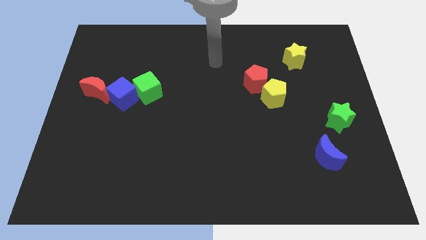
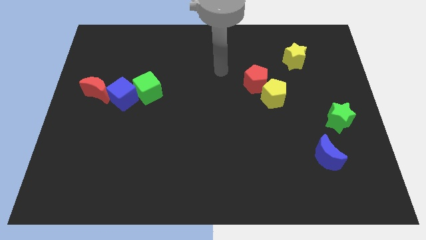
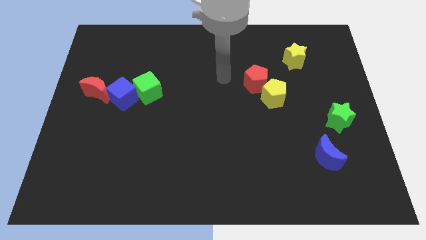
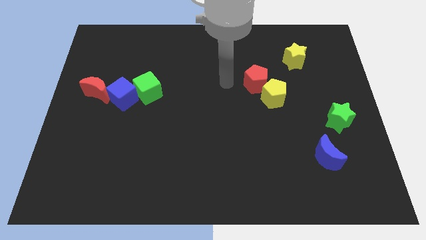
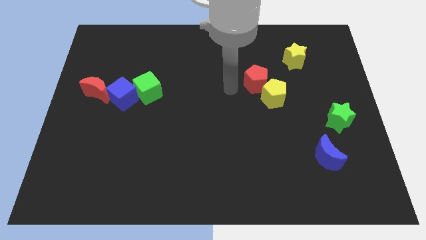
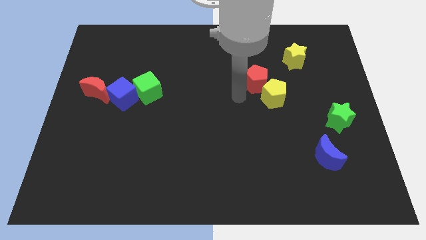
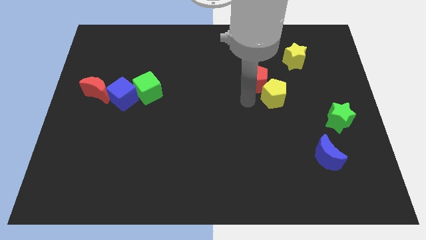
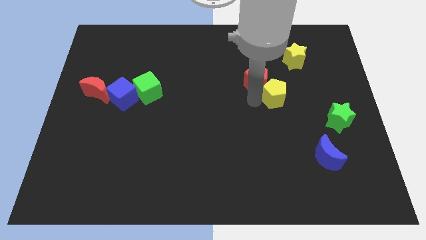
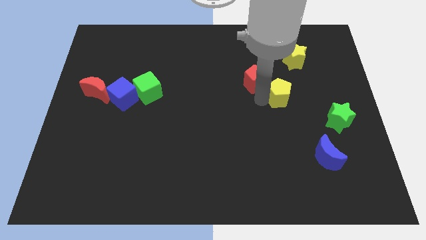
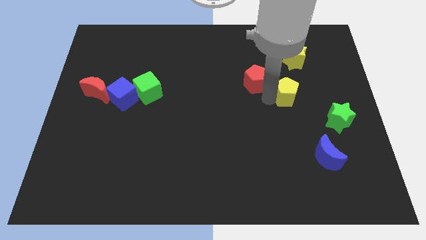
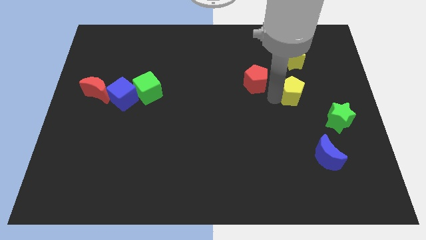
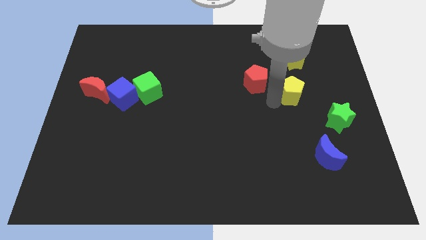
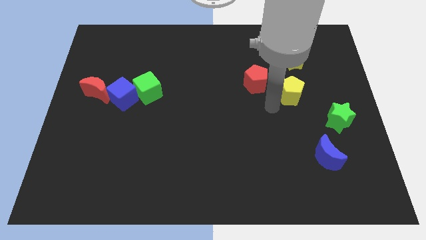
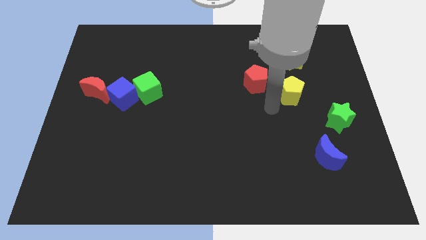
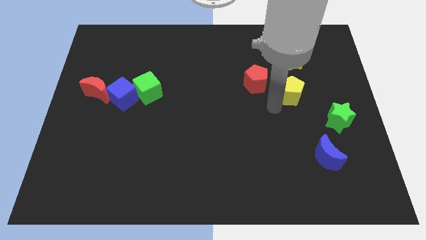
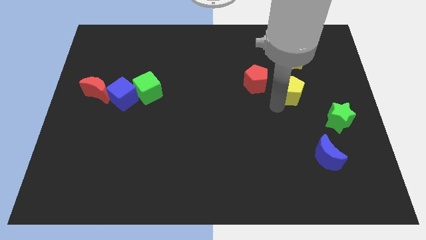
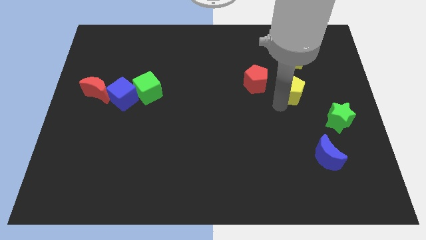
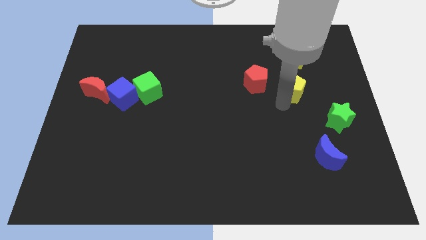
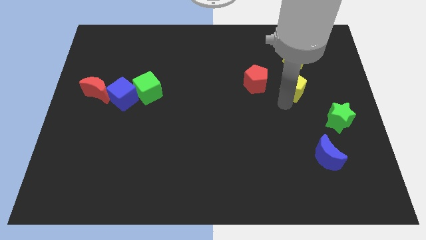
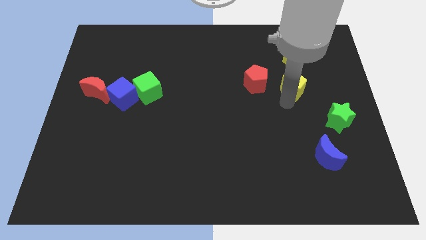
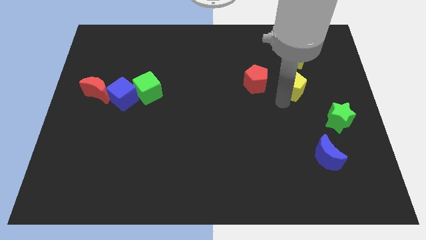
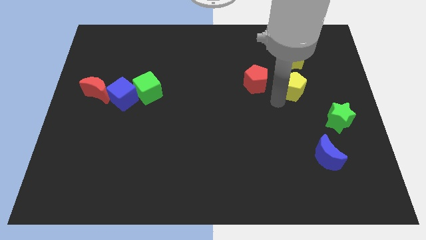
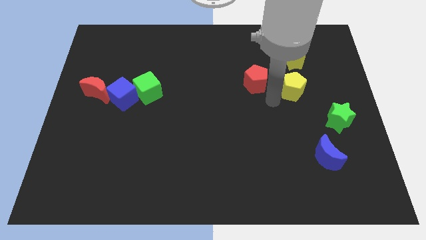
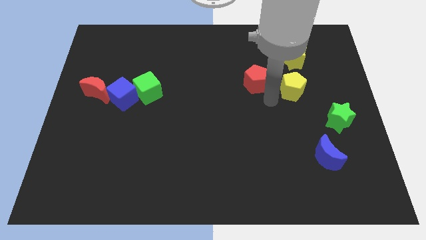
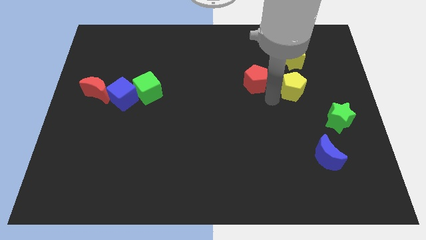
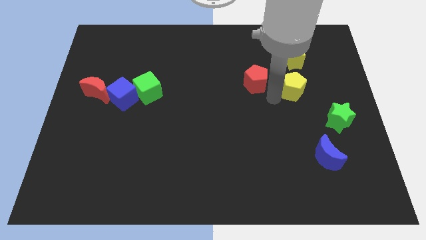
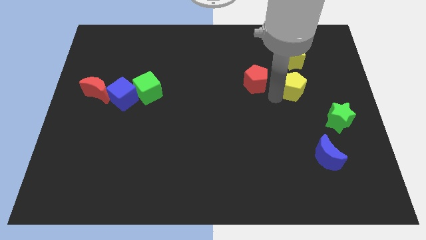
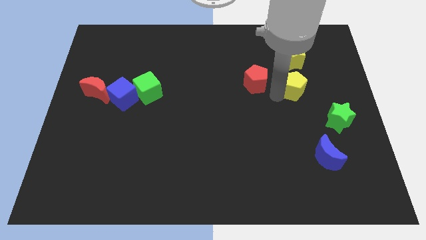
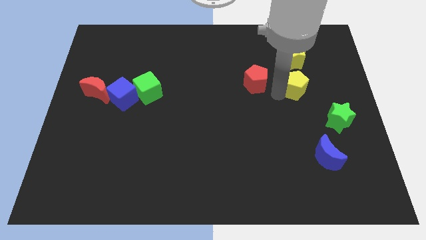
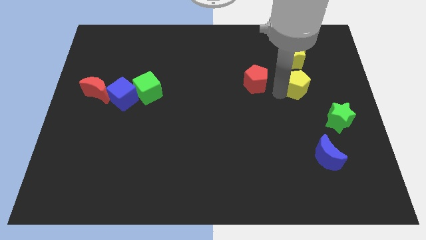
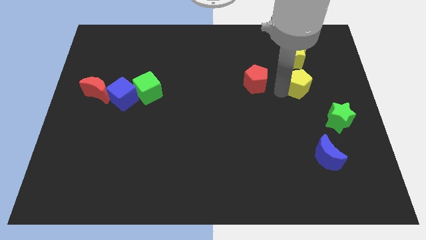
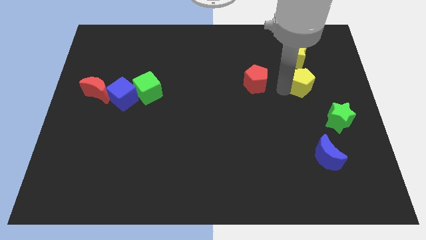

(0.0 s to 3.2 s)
slightly push the yellow pentagon up and right

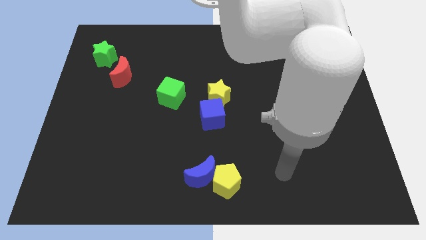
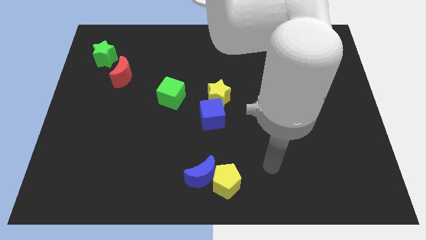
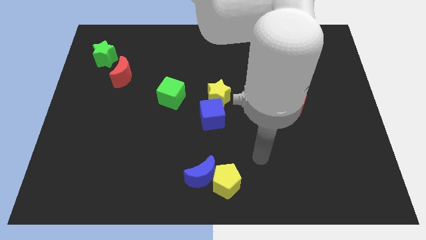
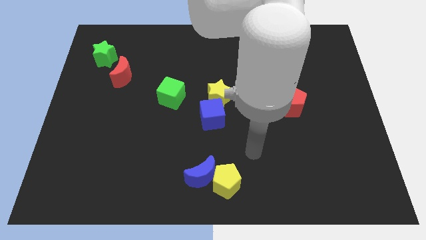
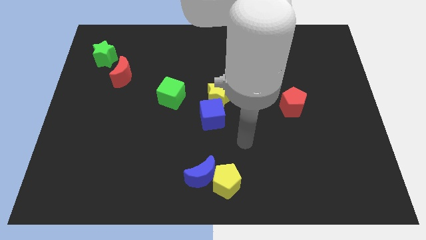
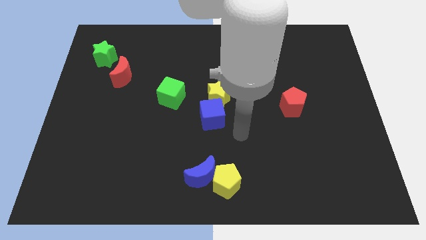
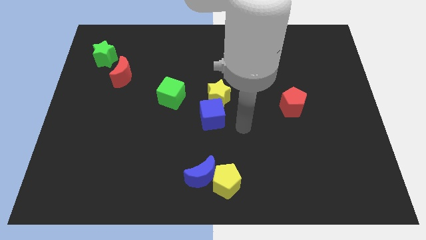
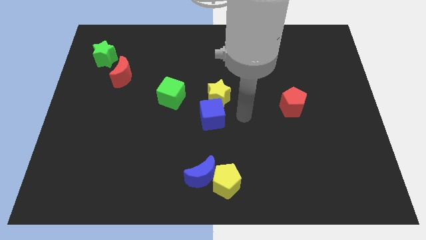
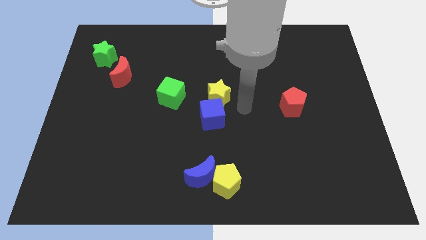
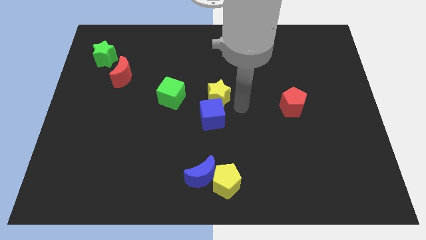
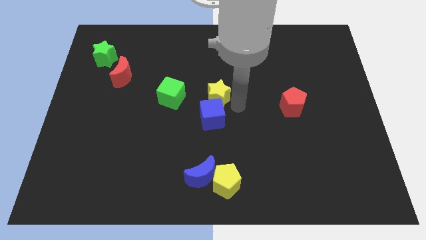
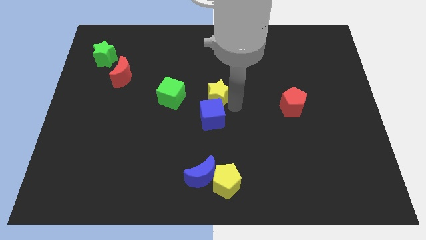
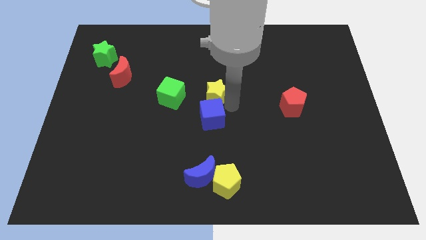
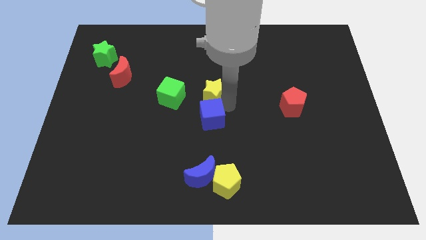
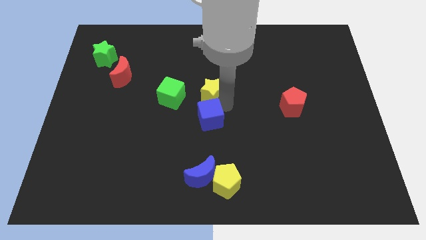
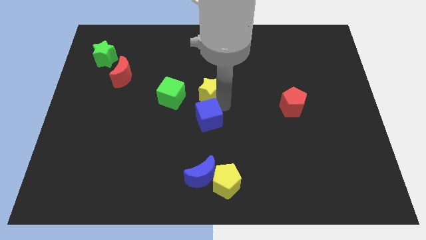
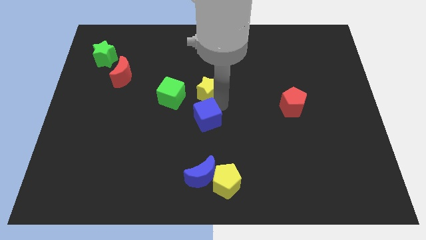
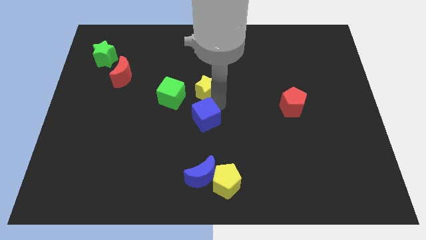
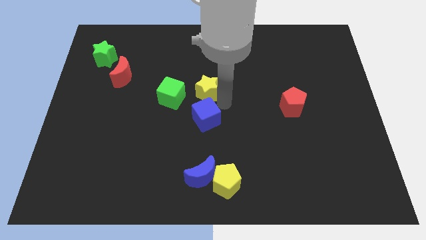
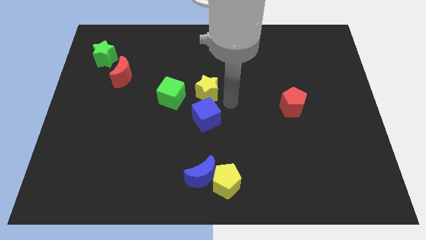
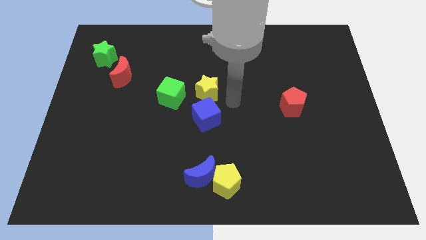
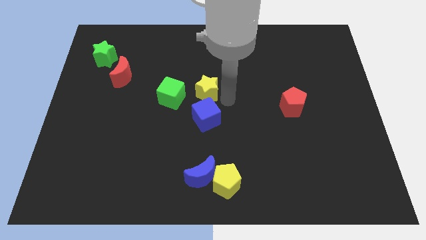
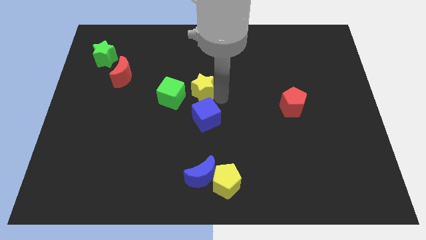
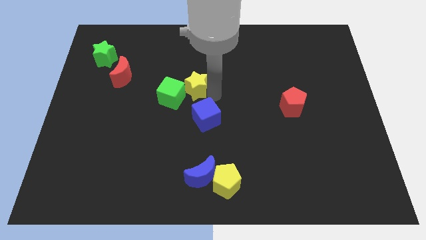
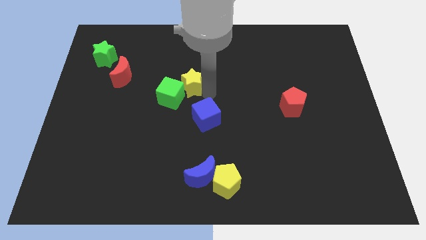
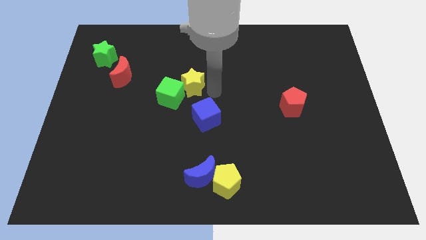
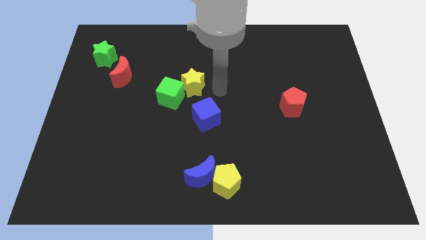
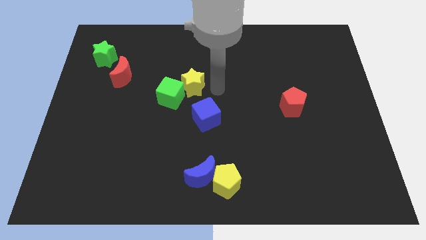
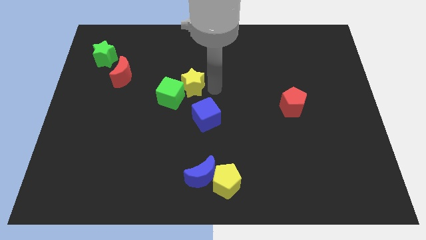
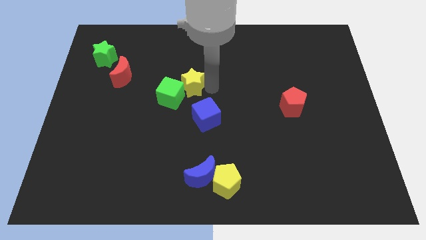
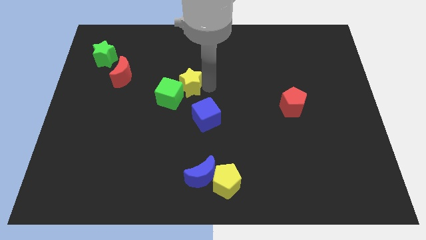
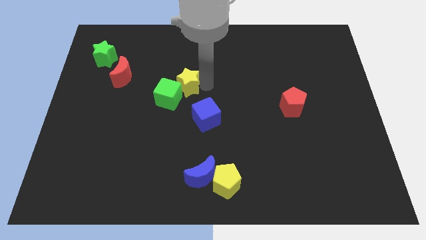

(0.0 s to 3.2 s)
slightly slide the yellow star left

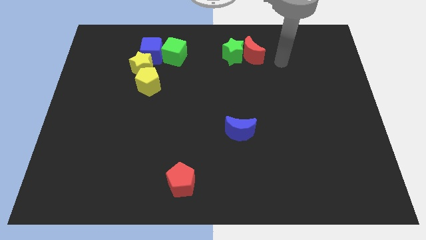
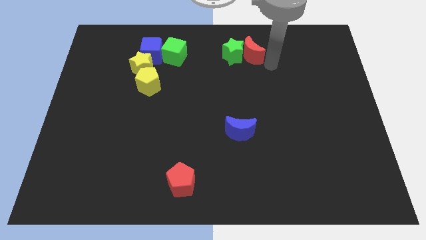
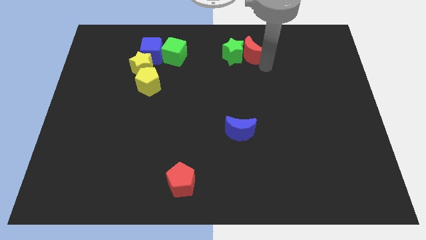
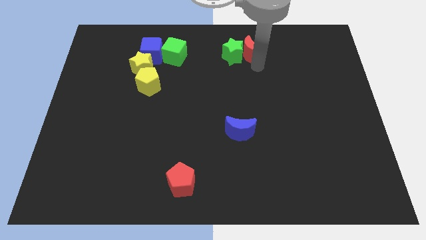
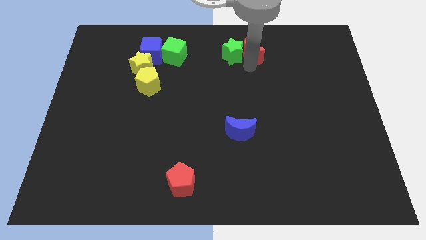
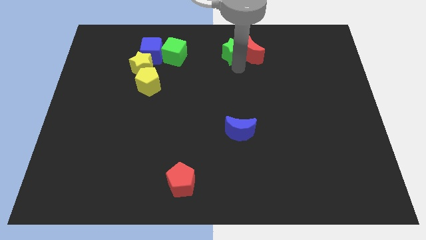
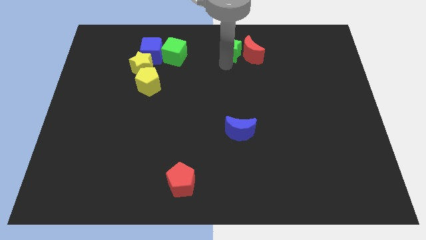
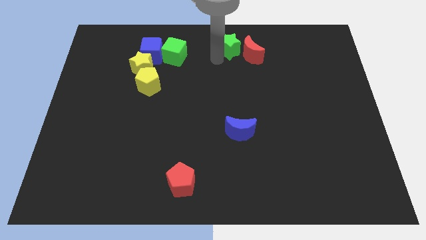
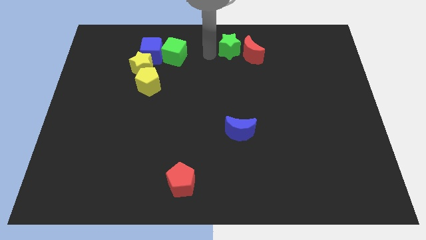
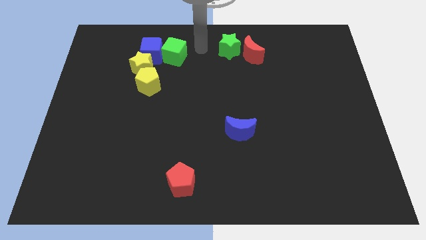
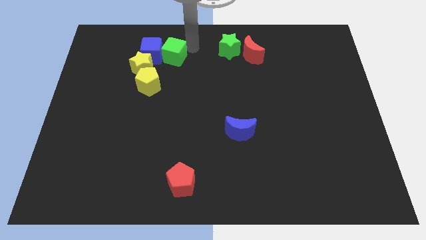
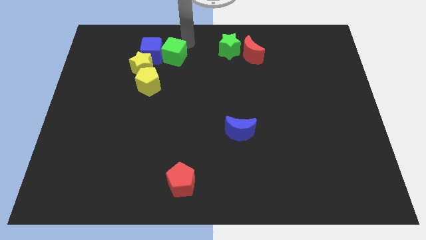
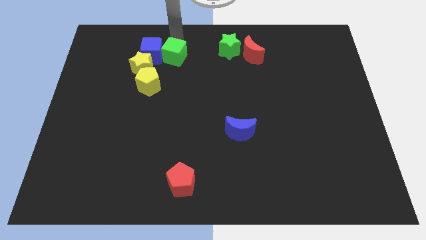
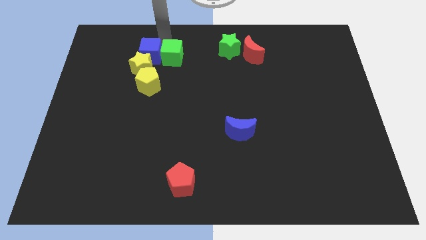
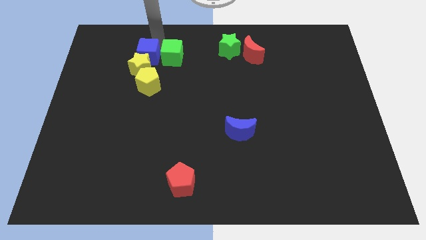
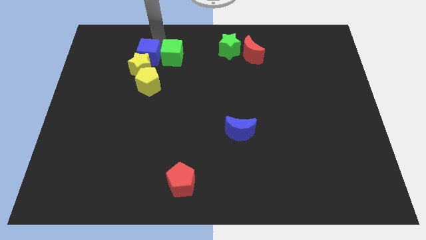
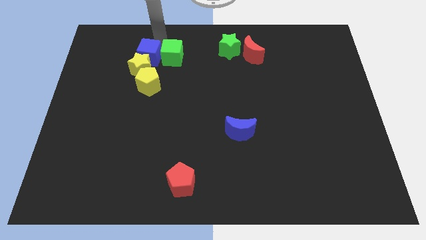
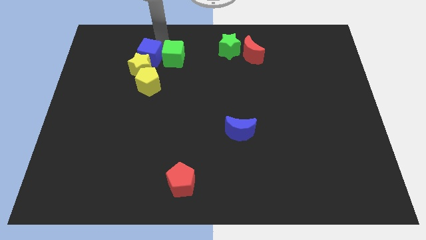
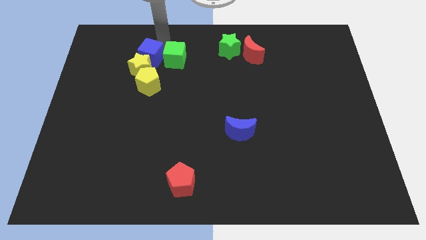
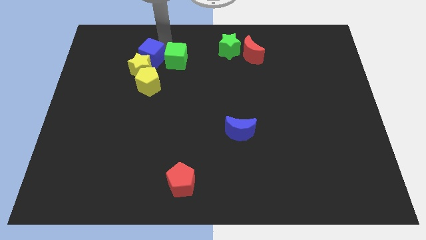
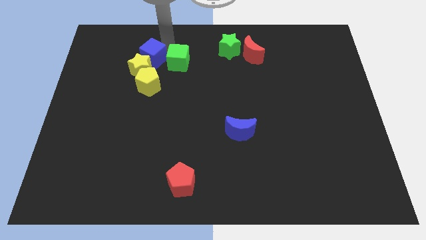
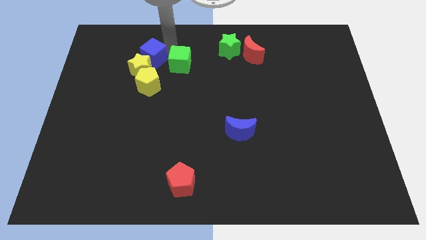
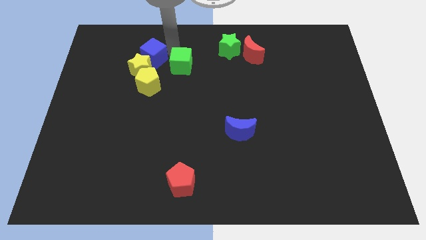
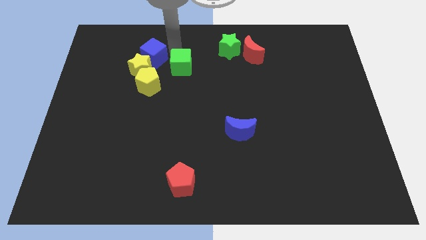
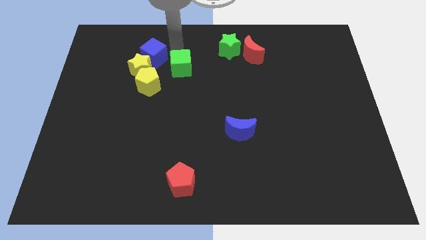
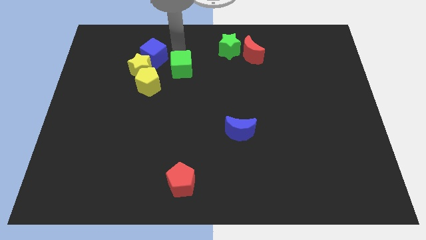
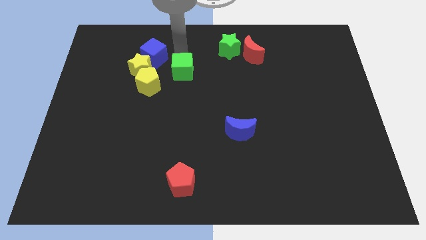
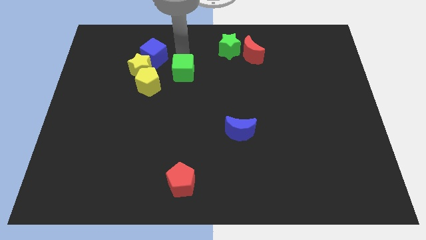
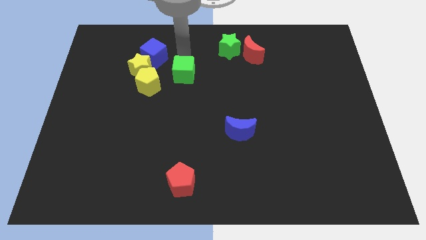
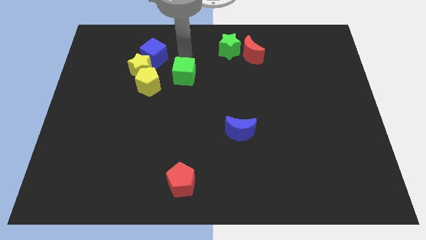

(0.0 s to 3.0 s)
move the green cube diagonally downwards and to the right a little
